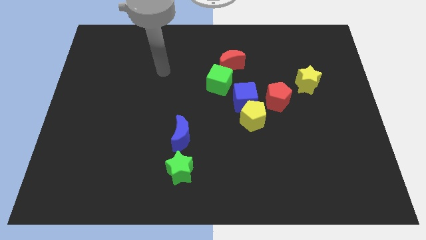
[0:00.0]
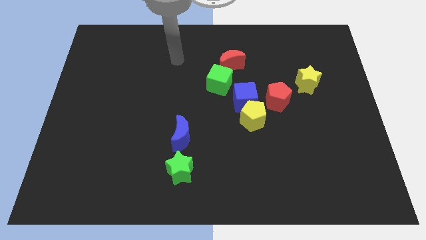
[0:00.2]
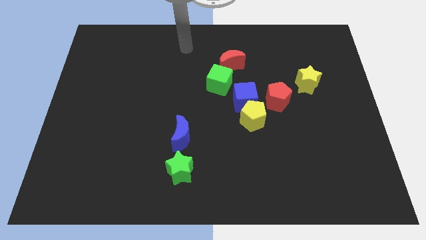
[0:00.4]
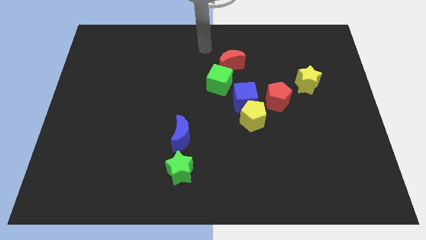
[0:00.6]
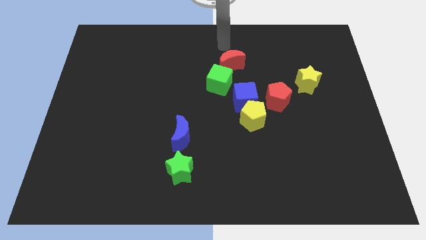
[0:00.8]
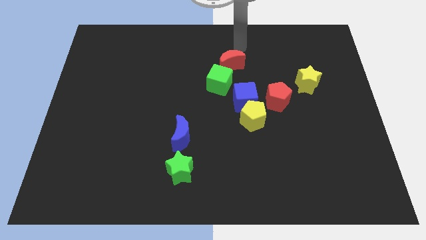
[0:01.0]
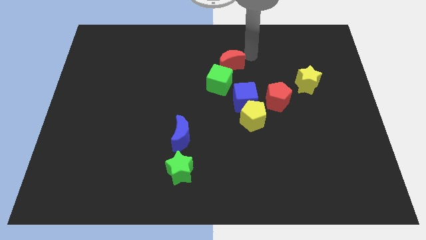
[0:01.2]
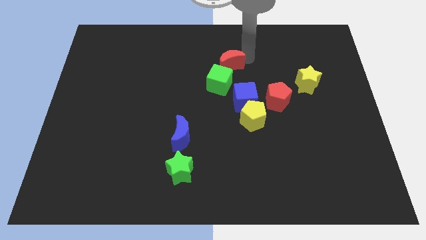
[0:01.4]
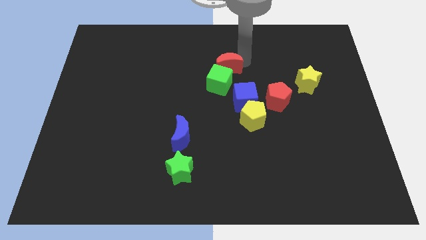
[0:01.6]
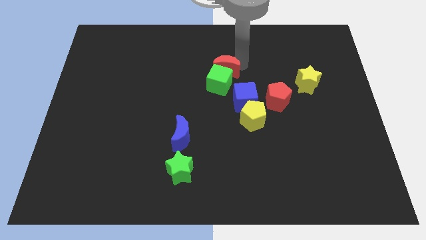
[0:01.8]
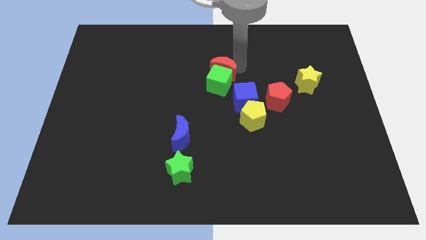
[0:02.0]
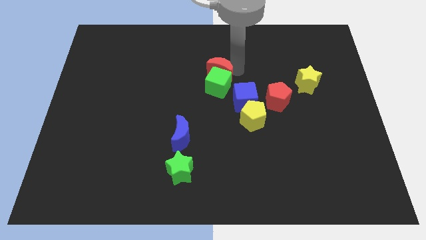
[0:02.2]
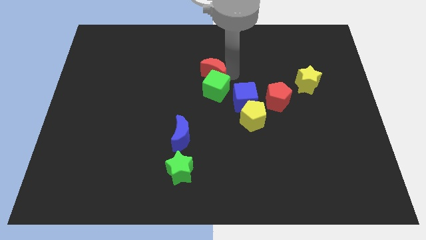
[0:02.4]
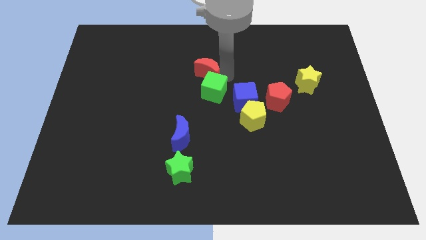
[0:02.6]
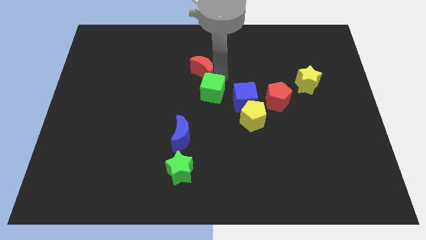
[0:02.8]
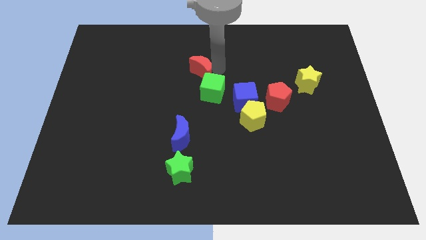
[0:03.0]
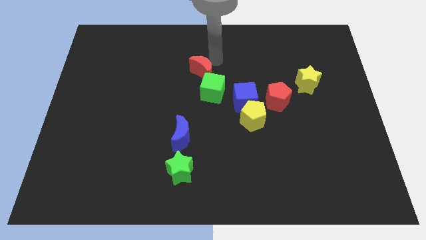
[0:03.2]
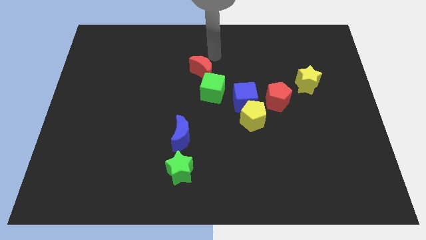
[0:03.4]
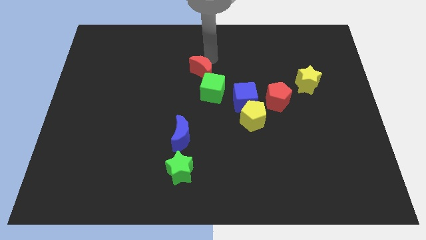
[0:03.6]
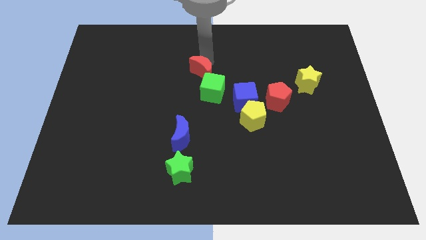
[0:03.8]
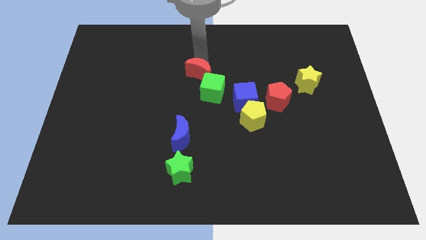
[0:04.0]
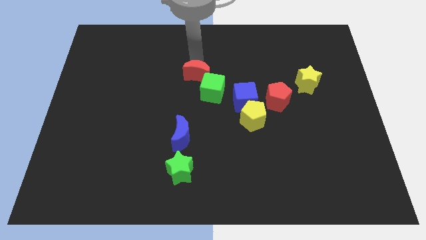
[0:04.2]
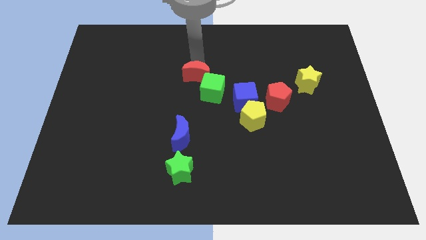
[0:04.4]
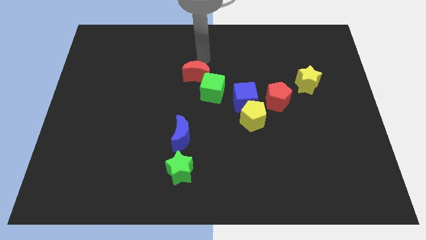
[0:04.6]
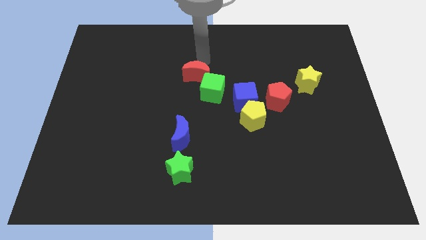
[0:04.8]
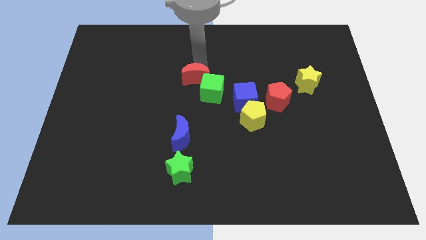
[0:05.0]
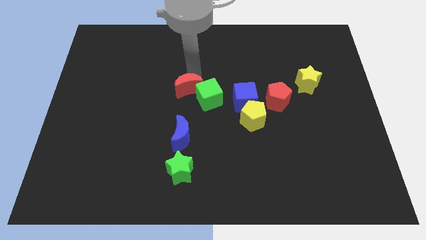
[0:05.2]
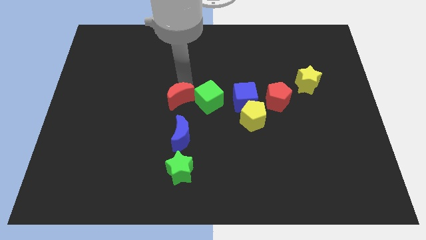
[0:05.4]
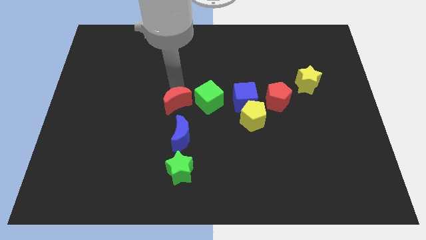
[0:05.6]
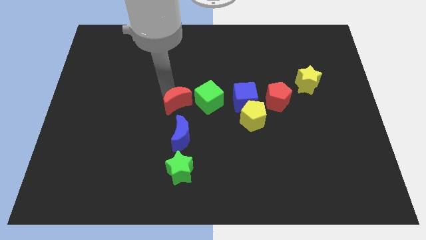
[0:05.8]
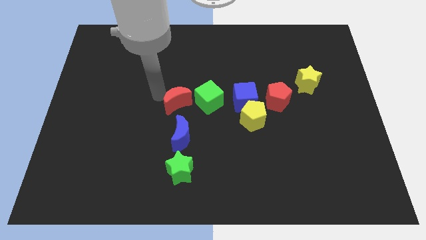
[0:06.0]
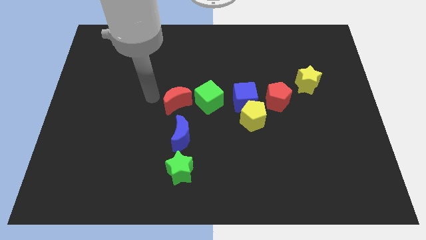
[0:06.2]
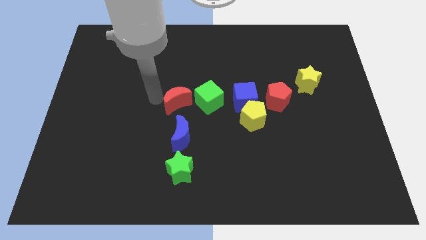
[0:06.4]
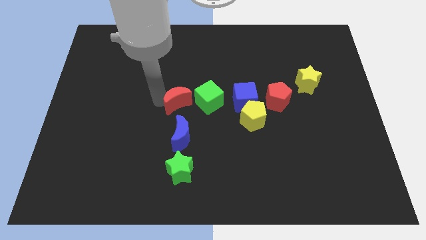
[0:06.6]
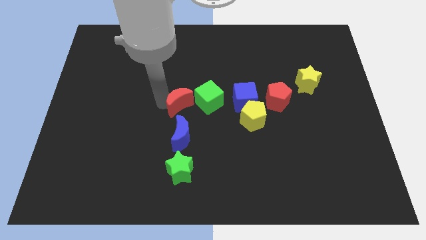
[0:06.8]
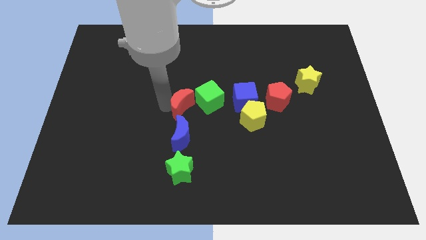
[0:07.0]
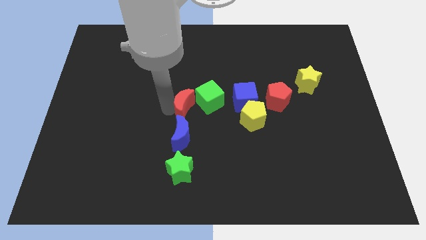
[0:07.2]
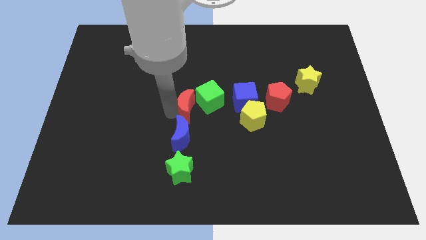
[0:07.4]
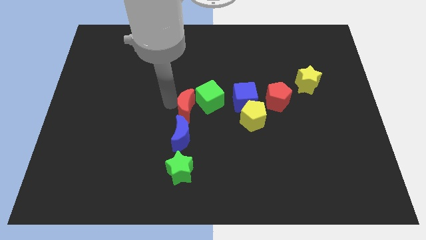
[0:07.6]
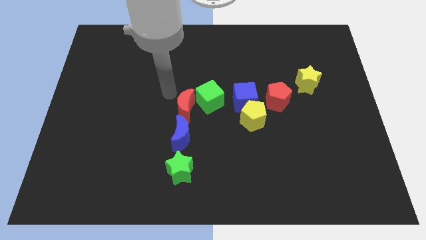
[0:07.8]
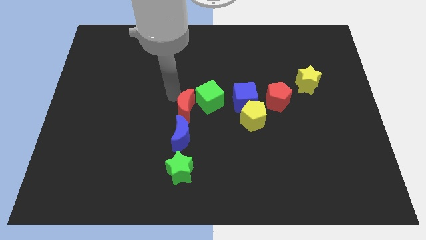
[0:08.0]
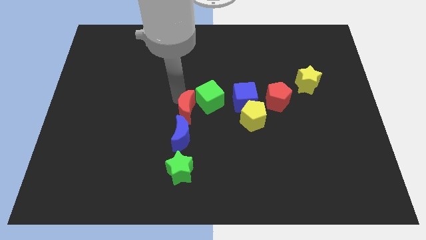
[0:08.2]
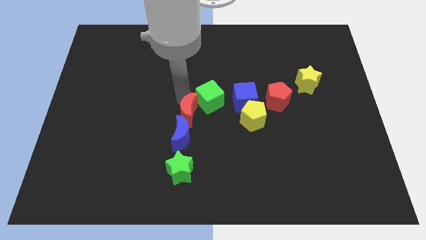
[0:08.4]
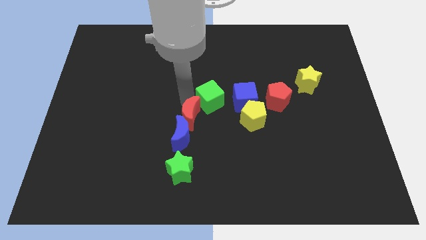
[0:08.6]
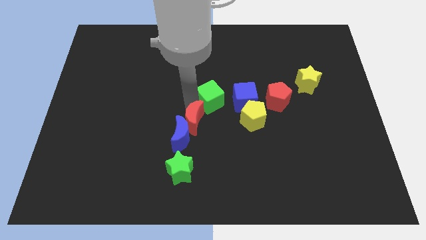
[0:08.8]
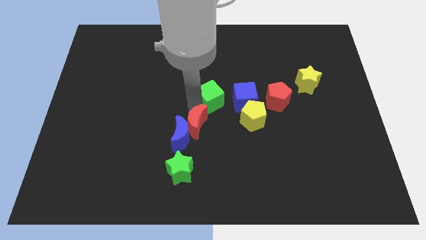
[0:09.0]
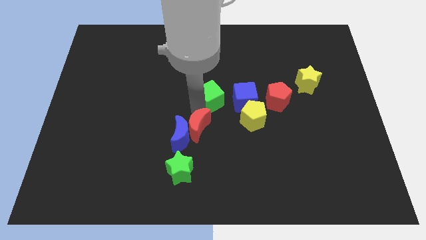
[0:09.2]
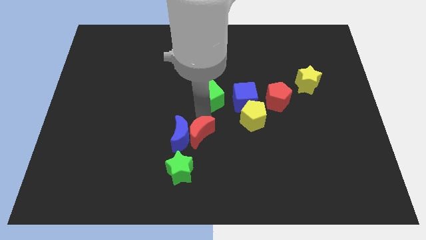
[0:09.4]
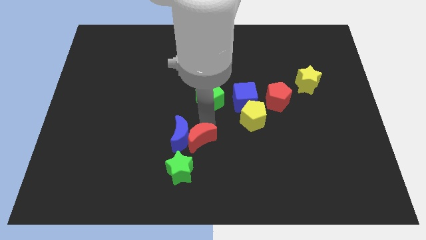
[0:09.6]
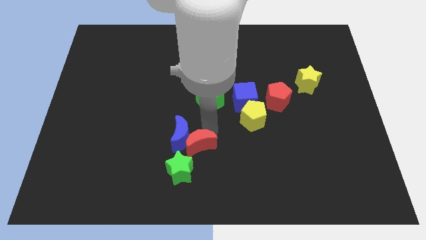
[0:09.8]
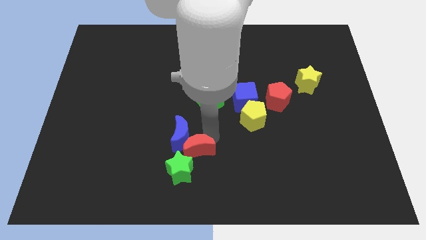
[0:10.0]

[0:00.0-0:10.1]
put the red moon close to the green star

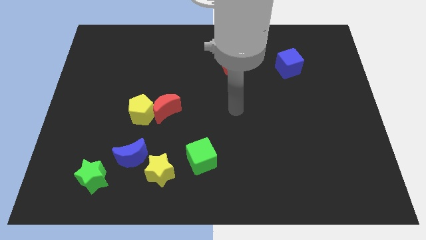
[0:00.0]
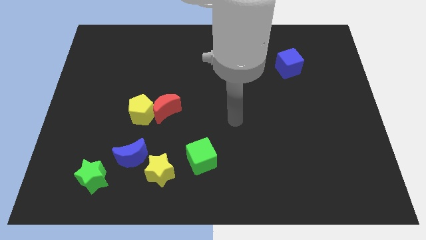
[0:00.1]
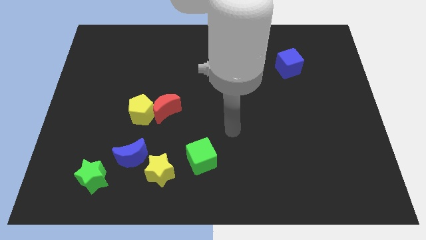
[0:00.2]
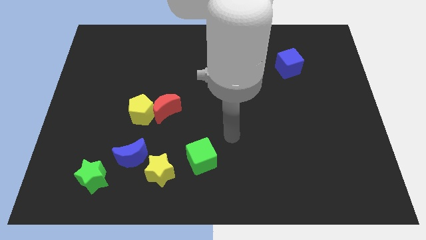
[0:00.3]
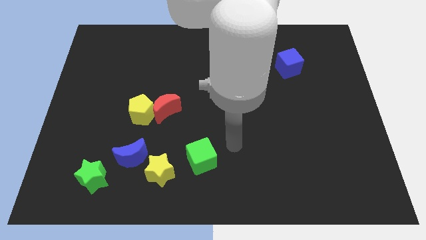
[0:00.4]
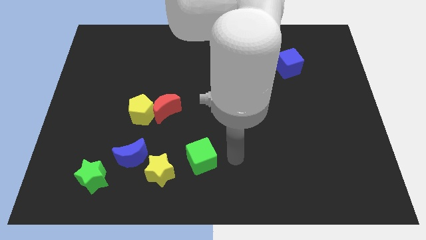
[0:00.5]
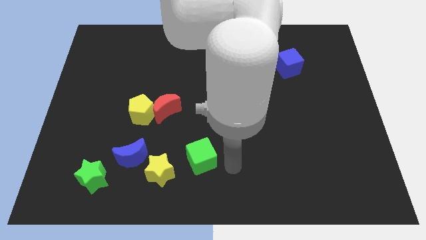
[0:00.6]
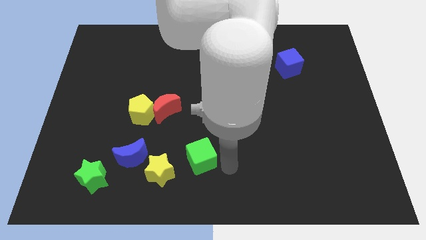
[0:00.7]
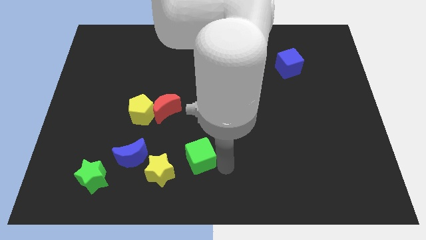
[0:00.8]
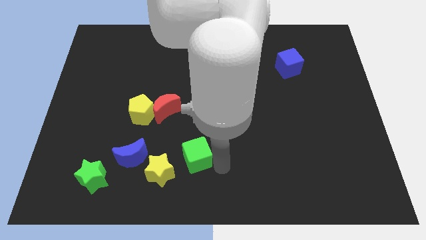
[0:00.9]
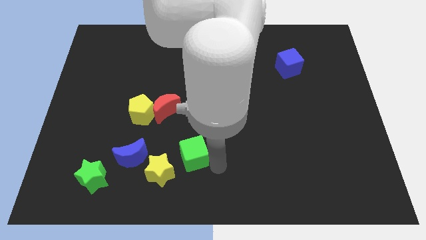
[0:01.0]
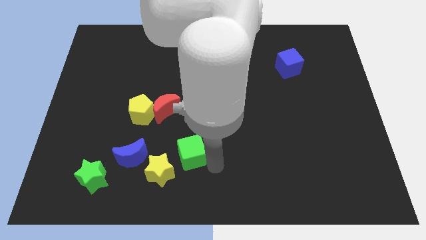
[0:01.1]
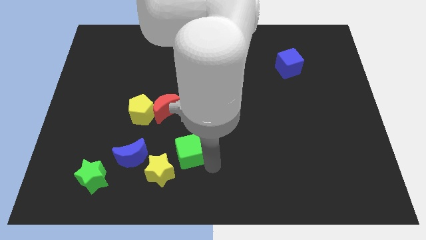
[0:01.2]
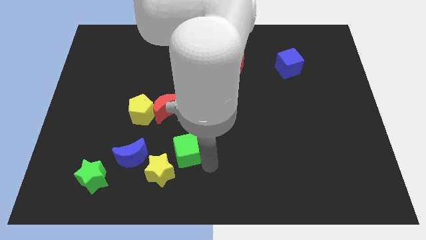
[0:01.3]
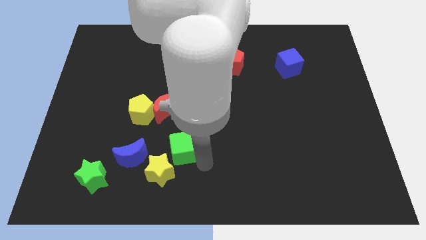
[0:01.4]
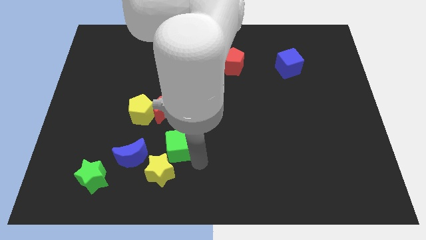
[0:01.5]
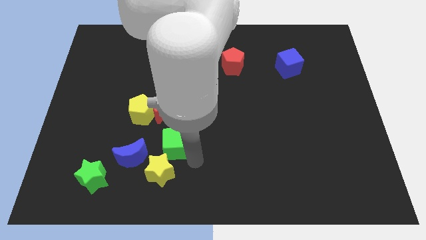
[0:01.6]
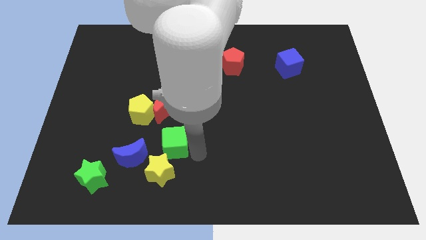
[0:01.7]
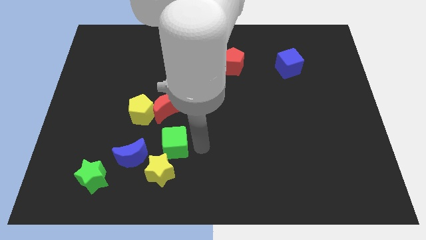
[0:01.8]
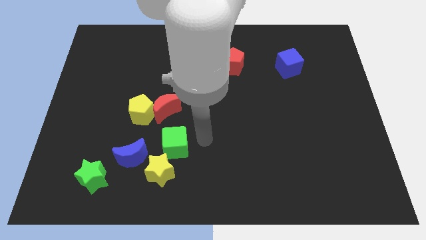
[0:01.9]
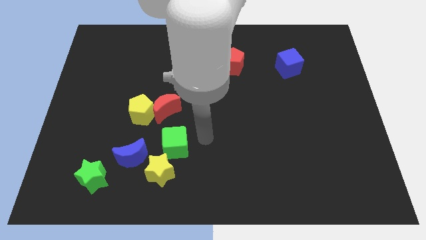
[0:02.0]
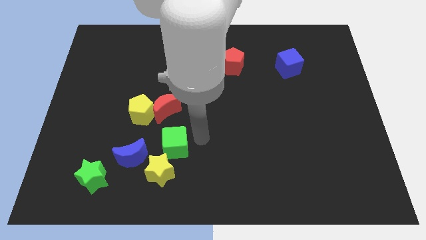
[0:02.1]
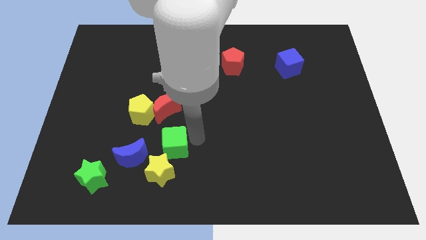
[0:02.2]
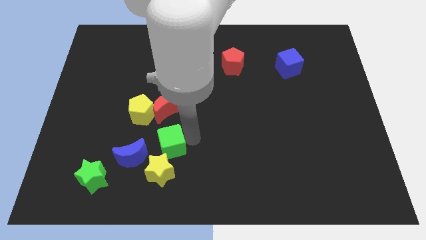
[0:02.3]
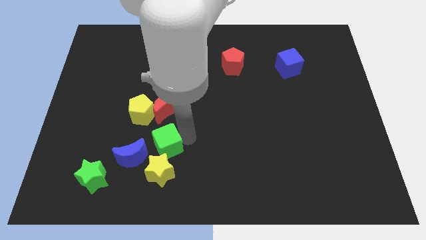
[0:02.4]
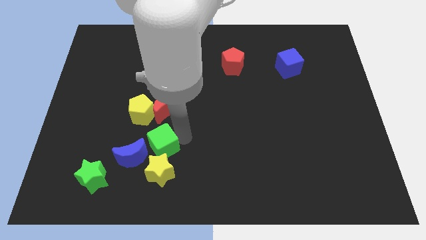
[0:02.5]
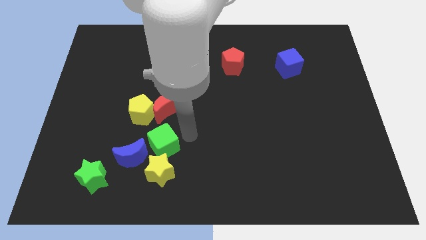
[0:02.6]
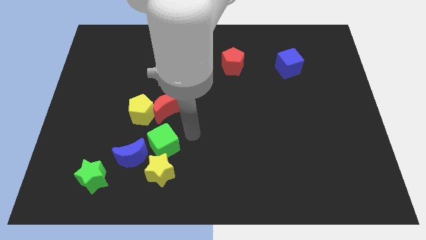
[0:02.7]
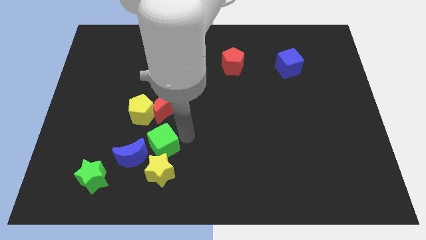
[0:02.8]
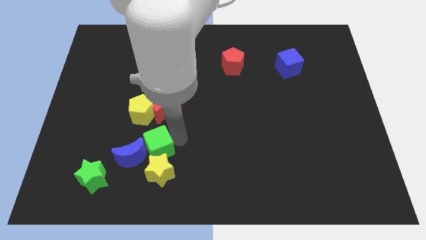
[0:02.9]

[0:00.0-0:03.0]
push the green cube next to the blue moon
